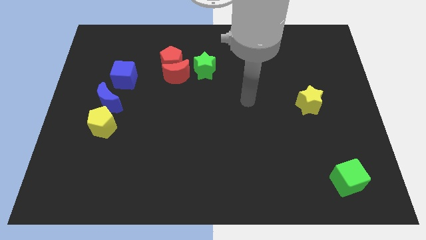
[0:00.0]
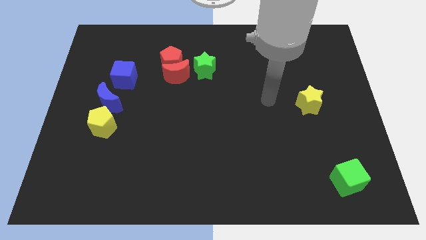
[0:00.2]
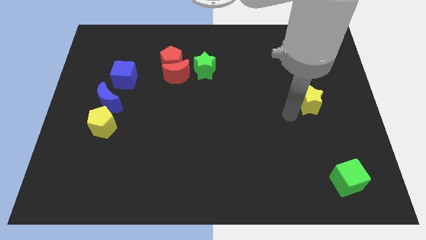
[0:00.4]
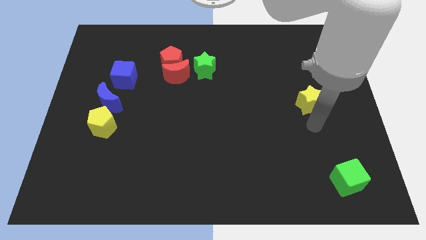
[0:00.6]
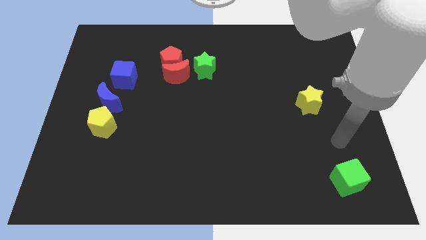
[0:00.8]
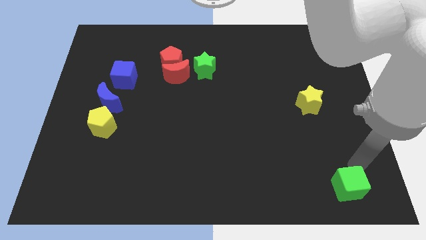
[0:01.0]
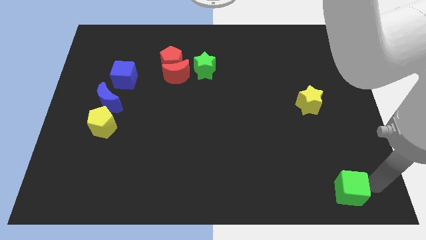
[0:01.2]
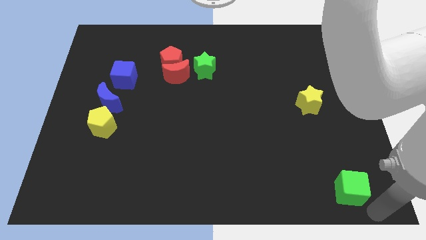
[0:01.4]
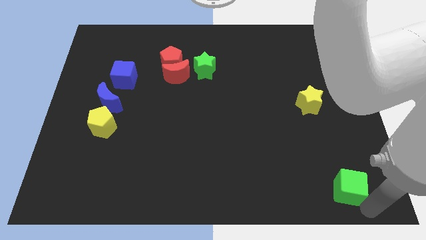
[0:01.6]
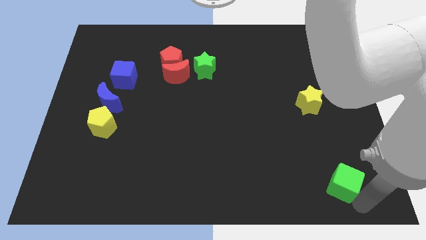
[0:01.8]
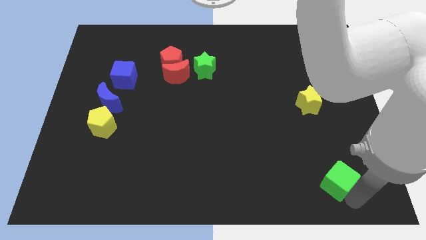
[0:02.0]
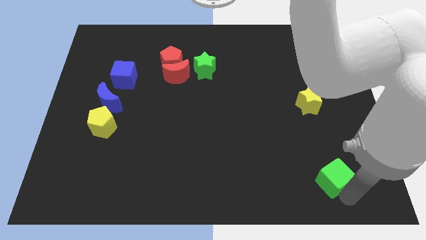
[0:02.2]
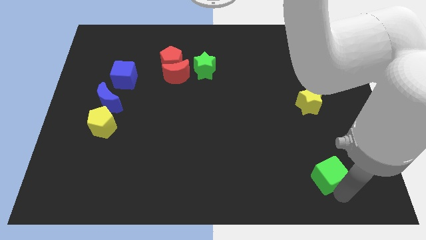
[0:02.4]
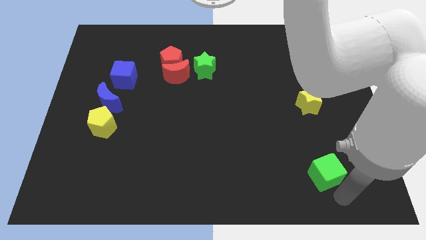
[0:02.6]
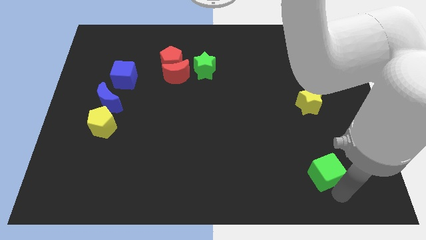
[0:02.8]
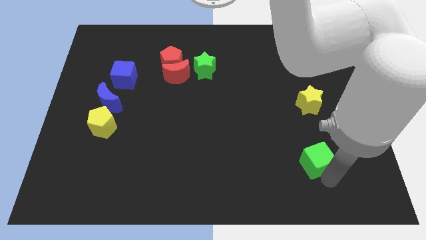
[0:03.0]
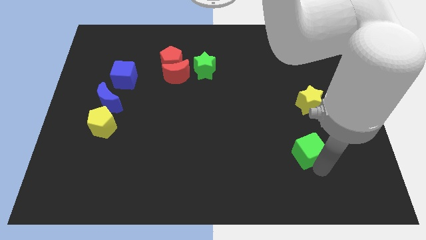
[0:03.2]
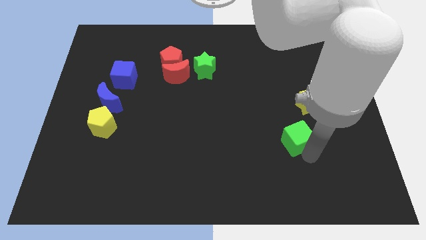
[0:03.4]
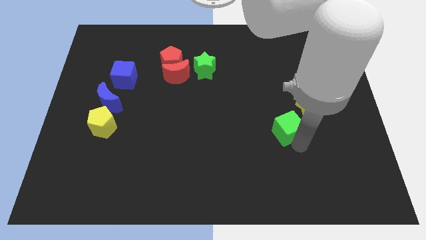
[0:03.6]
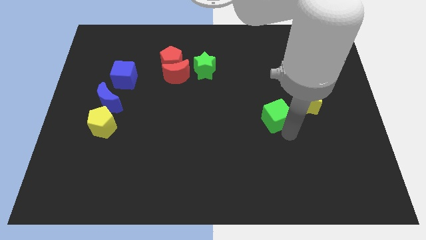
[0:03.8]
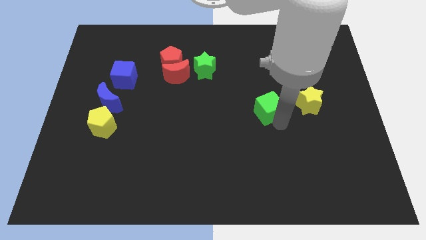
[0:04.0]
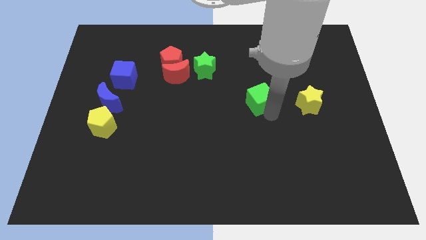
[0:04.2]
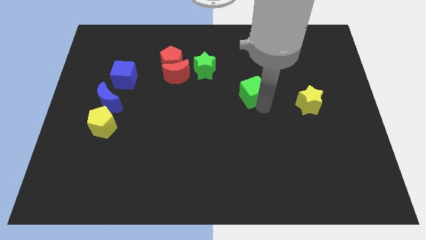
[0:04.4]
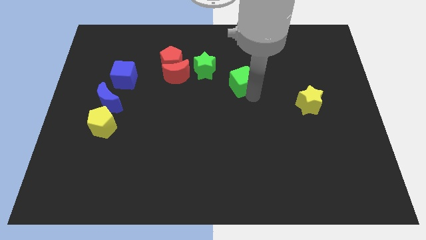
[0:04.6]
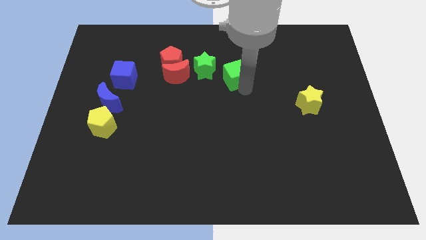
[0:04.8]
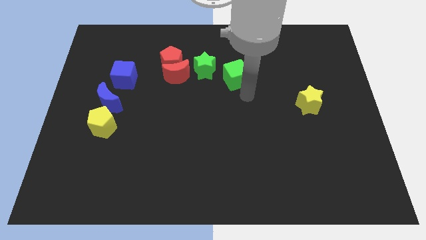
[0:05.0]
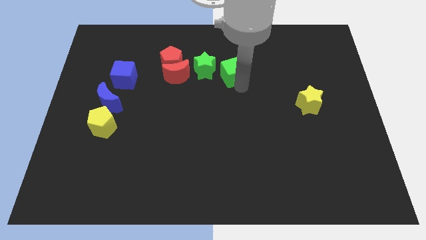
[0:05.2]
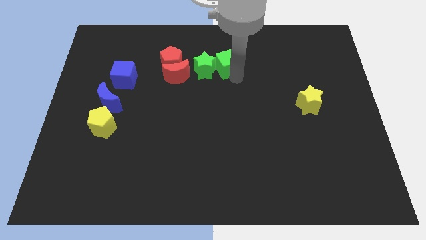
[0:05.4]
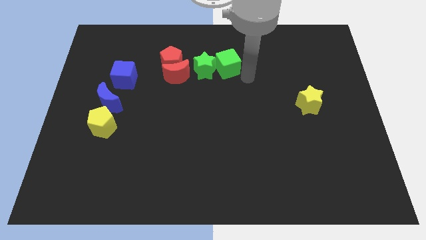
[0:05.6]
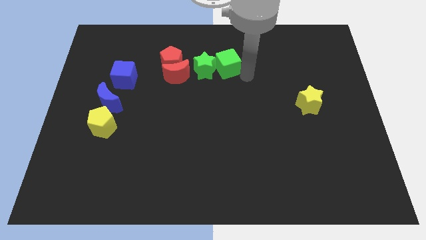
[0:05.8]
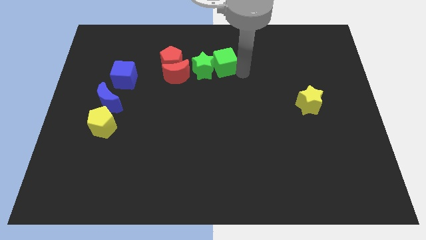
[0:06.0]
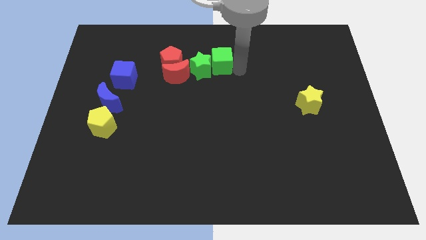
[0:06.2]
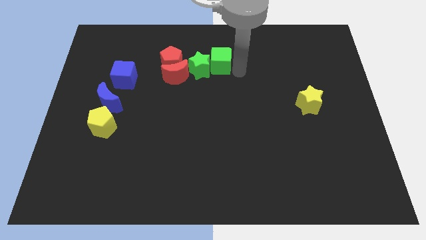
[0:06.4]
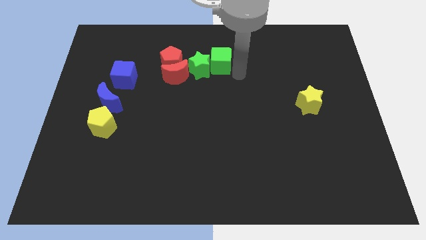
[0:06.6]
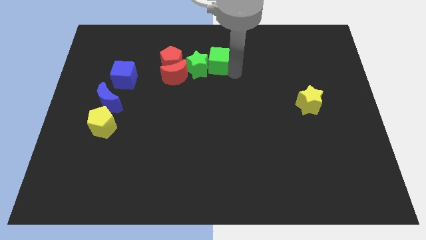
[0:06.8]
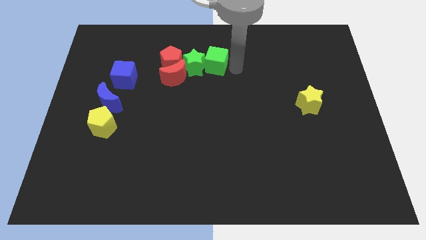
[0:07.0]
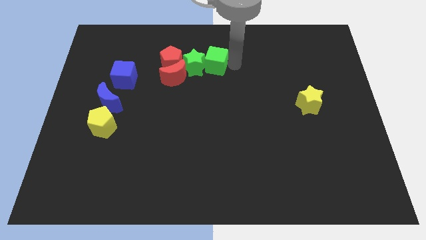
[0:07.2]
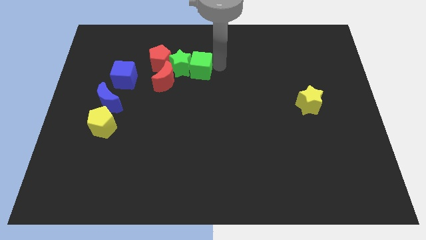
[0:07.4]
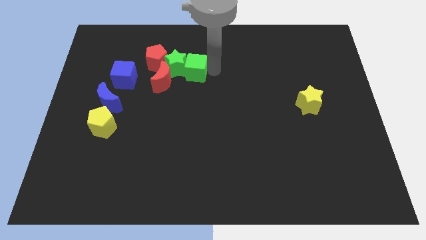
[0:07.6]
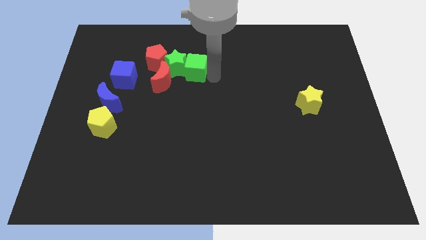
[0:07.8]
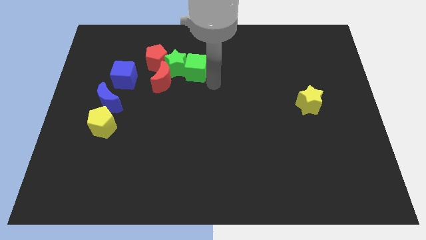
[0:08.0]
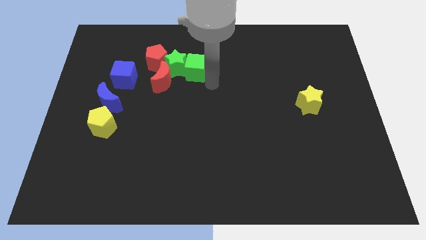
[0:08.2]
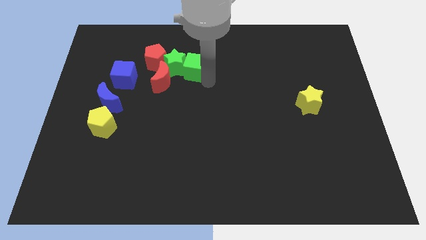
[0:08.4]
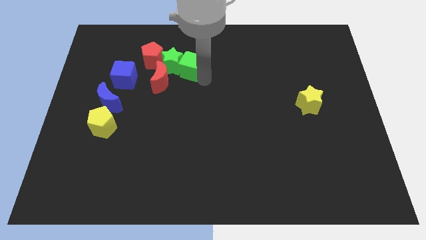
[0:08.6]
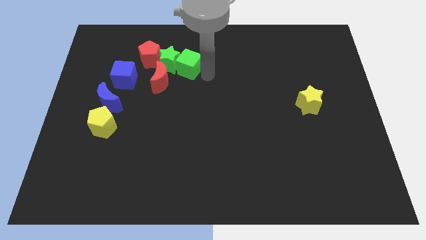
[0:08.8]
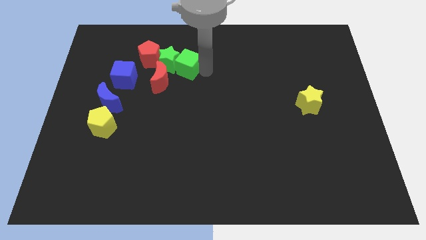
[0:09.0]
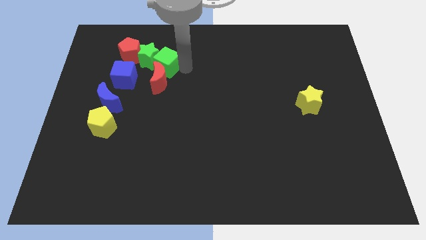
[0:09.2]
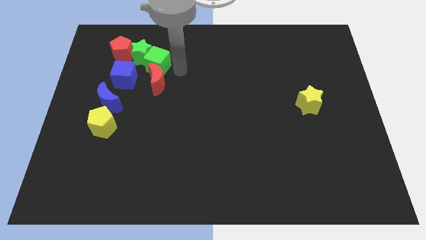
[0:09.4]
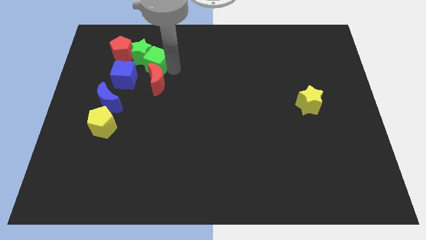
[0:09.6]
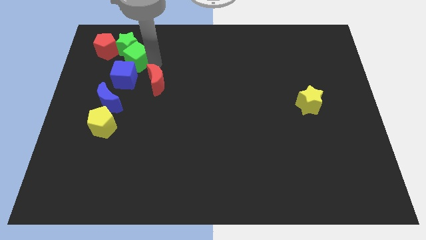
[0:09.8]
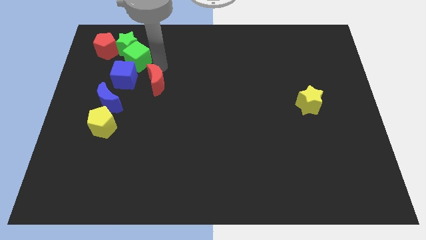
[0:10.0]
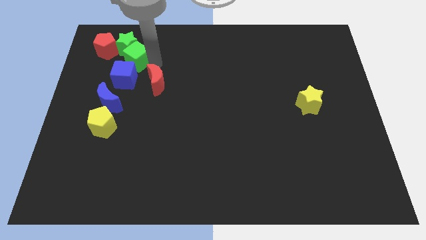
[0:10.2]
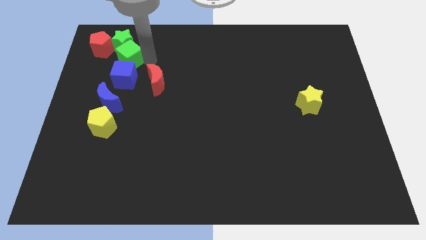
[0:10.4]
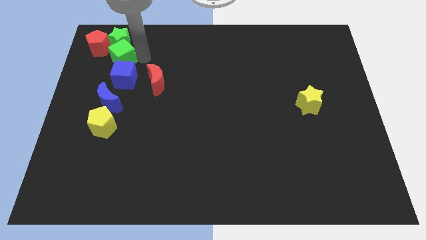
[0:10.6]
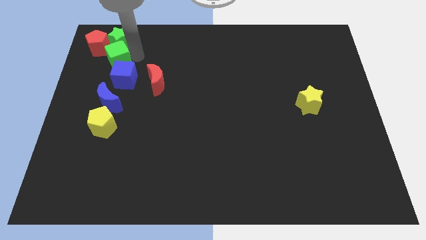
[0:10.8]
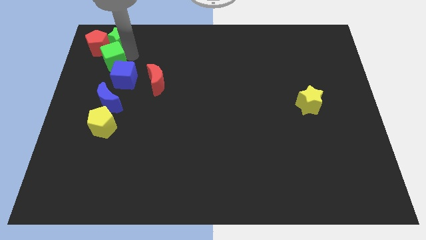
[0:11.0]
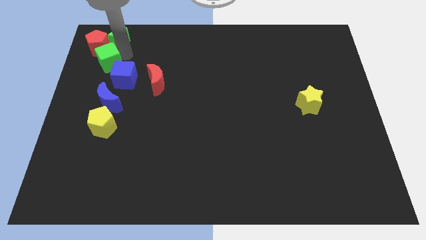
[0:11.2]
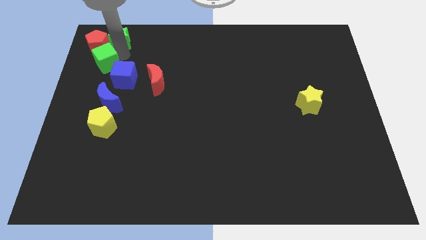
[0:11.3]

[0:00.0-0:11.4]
move the green cube close to the red pentagon

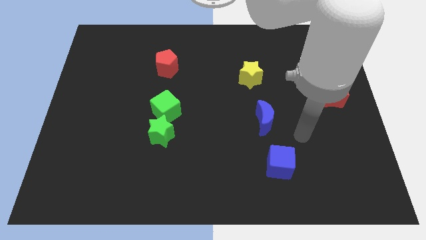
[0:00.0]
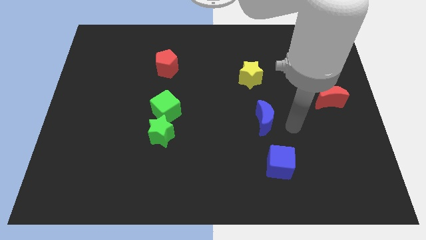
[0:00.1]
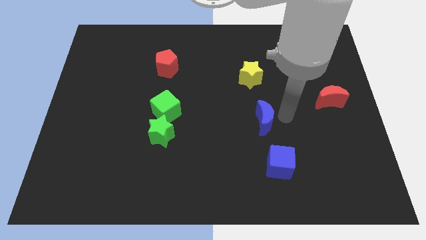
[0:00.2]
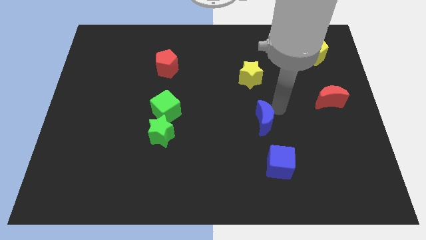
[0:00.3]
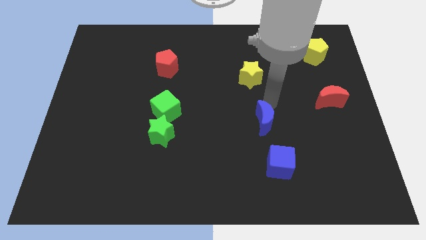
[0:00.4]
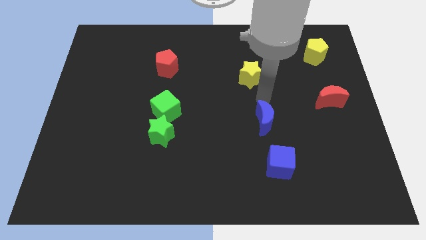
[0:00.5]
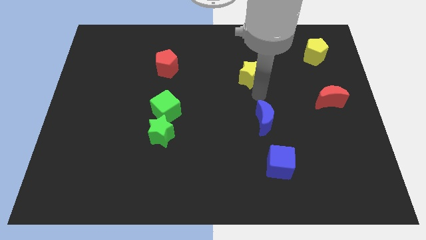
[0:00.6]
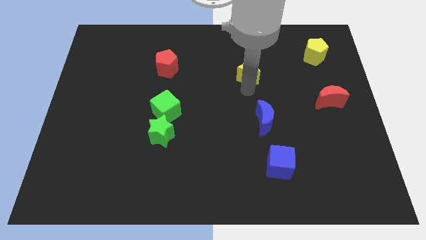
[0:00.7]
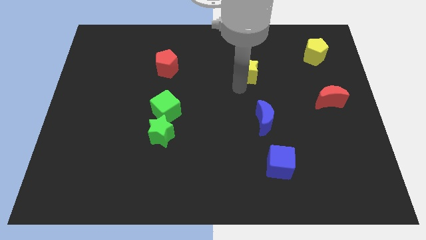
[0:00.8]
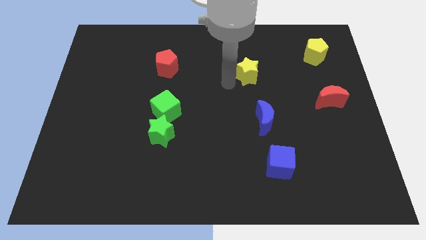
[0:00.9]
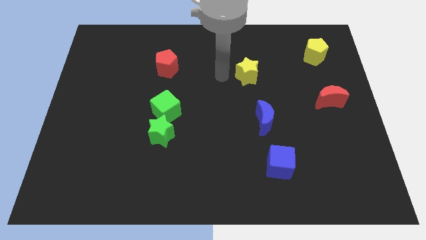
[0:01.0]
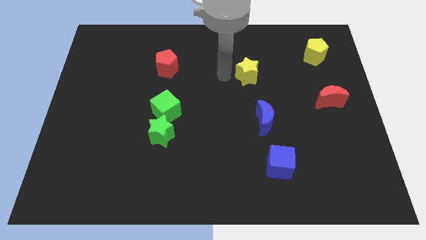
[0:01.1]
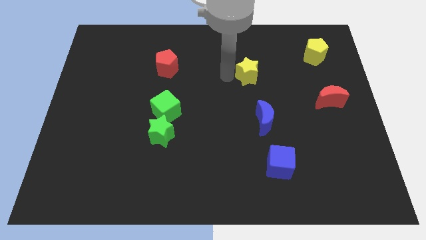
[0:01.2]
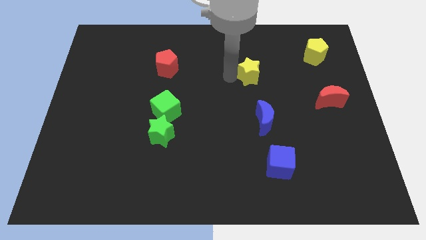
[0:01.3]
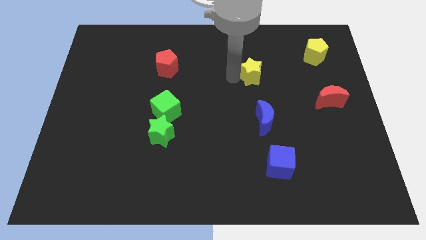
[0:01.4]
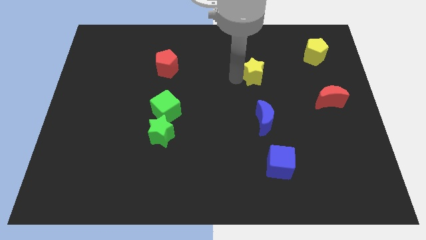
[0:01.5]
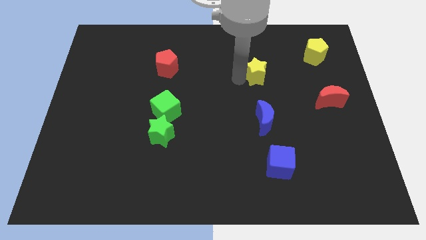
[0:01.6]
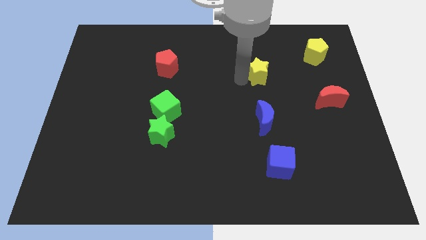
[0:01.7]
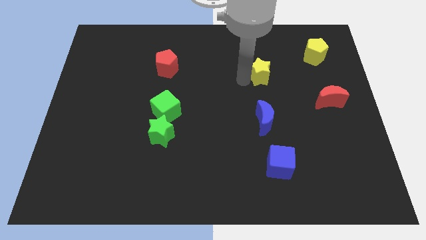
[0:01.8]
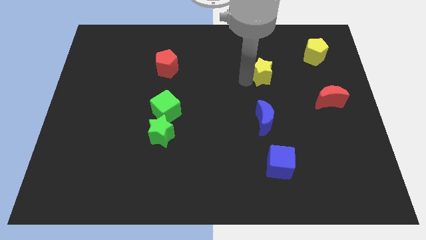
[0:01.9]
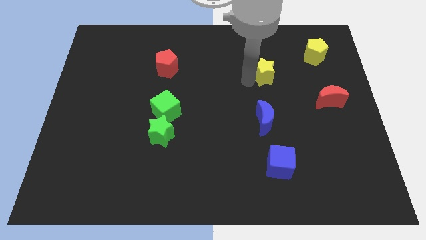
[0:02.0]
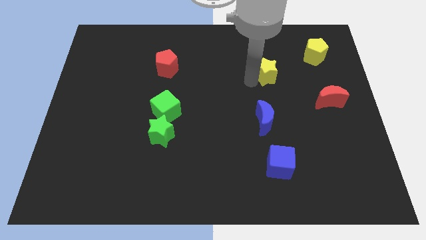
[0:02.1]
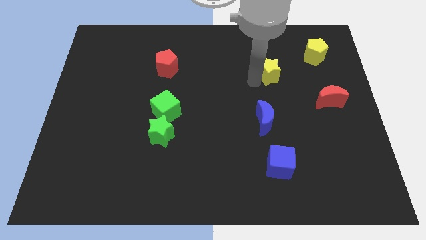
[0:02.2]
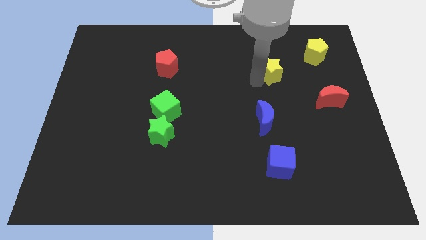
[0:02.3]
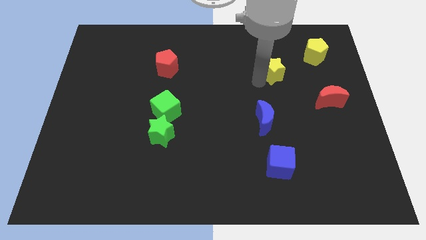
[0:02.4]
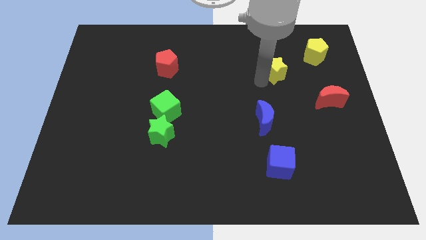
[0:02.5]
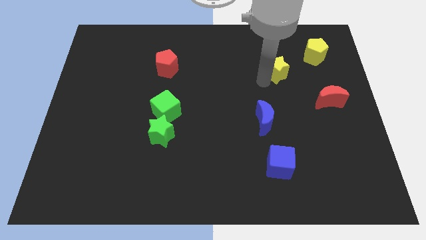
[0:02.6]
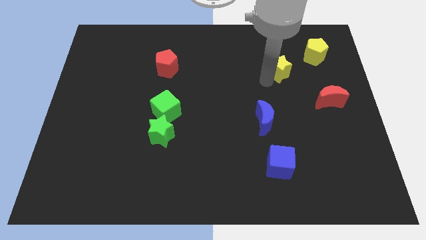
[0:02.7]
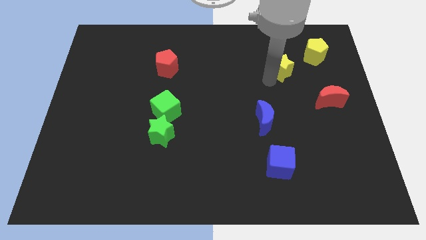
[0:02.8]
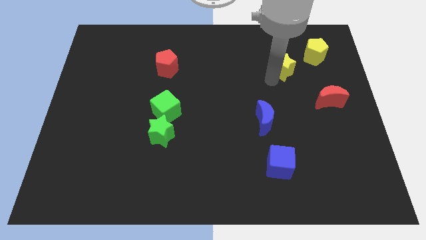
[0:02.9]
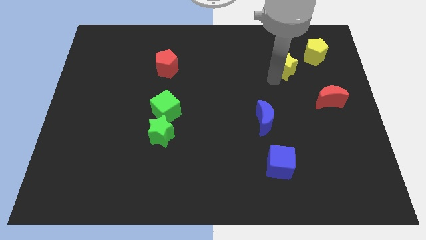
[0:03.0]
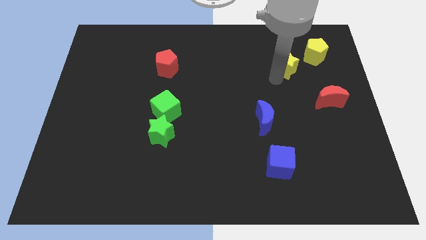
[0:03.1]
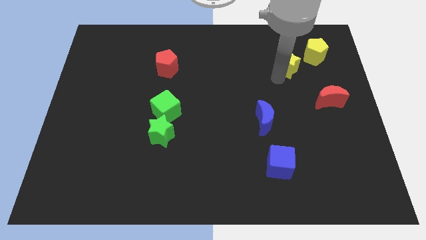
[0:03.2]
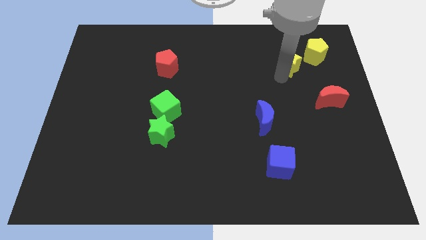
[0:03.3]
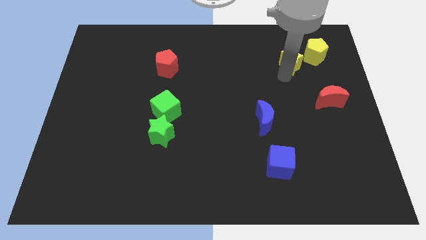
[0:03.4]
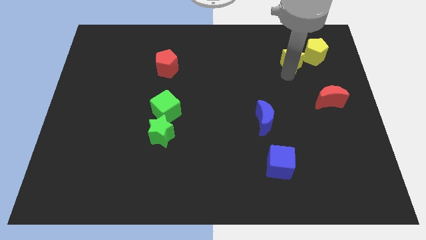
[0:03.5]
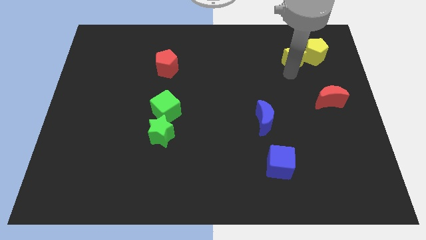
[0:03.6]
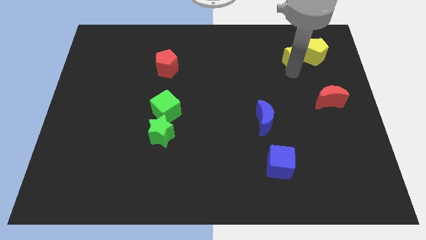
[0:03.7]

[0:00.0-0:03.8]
move the yellow star close to the yellow pentagon
